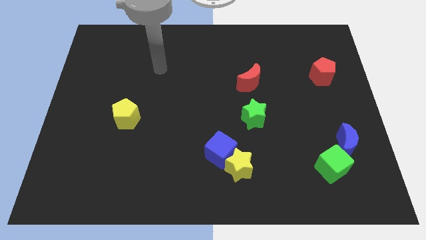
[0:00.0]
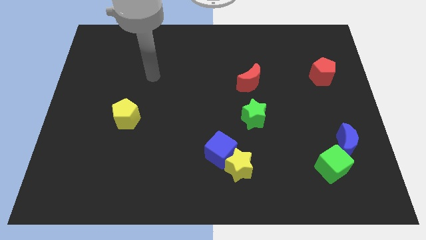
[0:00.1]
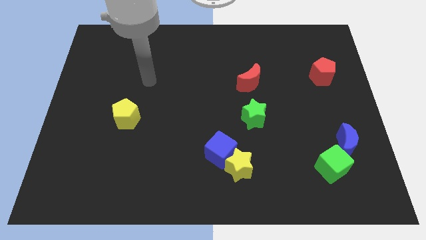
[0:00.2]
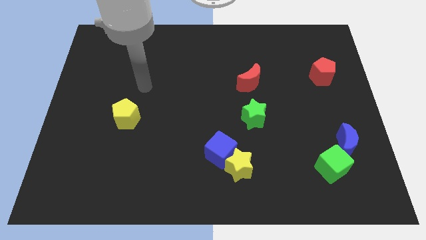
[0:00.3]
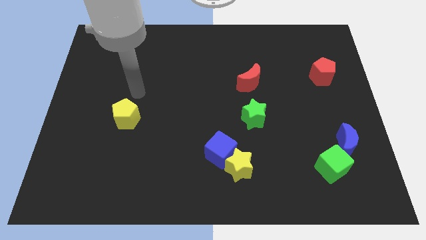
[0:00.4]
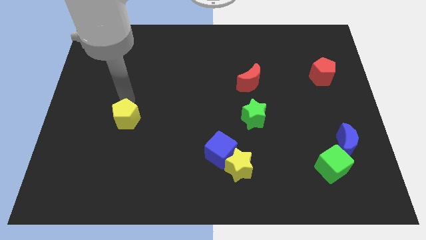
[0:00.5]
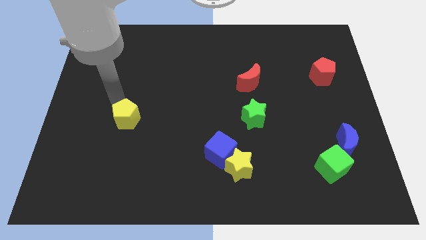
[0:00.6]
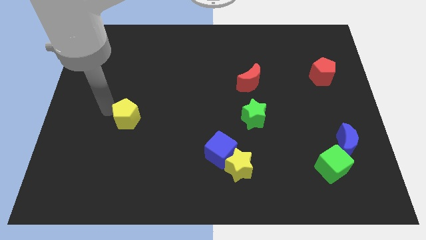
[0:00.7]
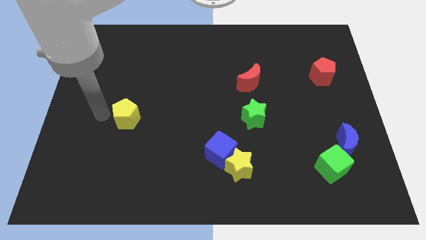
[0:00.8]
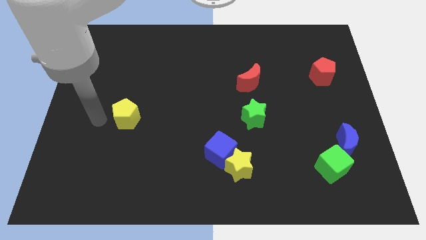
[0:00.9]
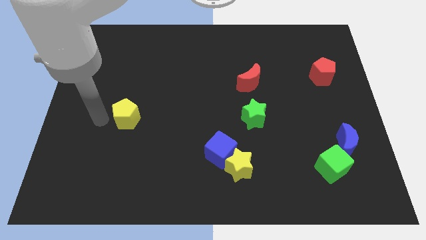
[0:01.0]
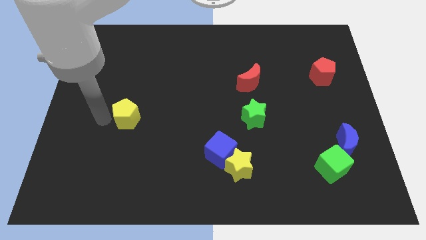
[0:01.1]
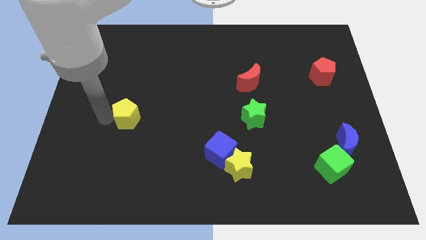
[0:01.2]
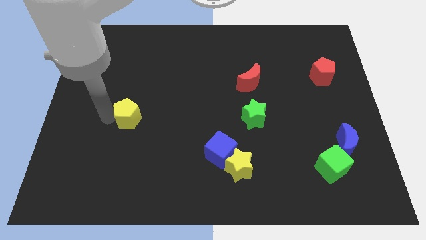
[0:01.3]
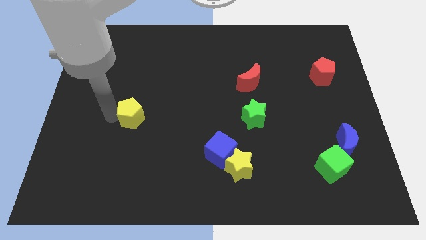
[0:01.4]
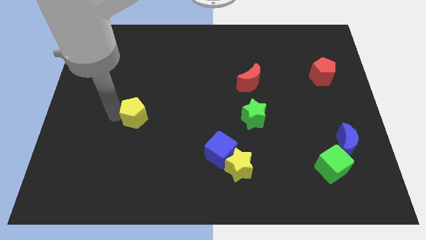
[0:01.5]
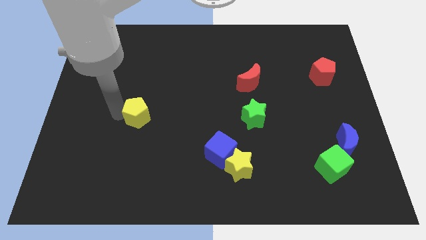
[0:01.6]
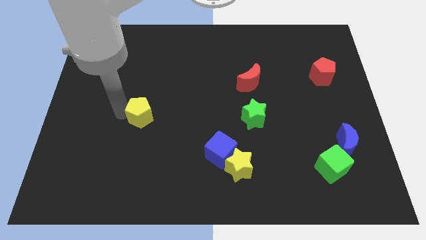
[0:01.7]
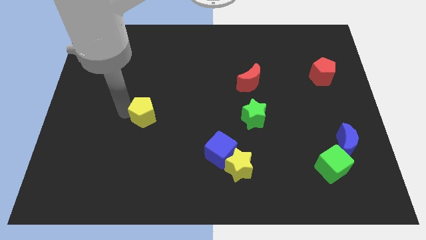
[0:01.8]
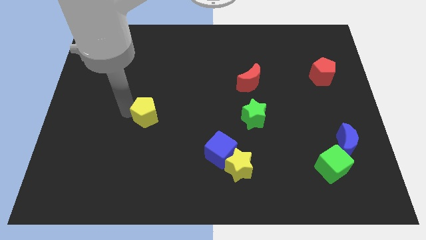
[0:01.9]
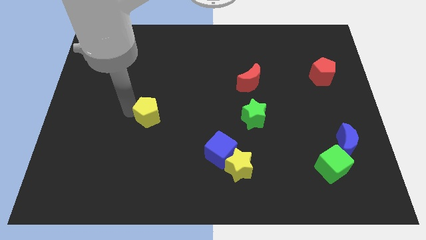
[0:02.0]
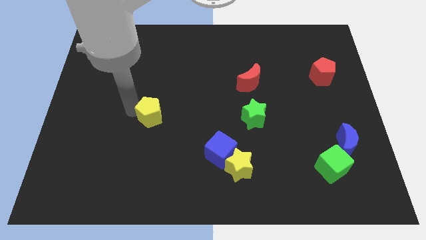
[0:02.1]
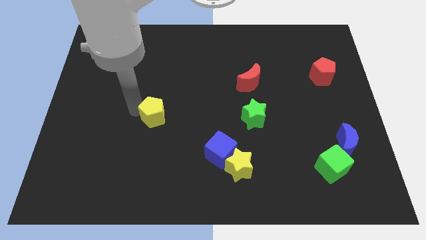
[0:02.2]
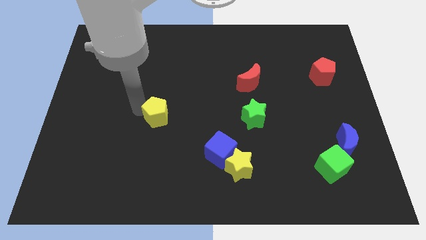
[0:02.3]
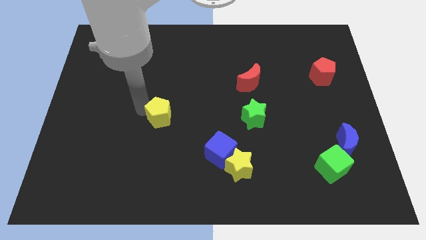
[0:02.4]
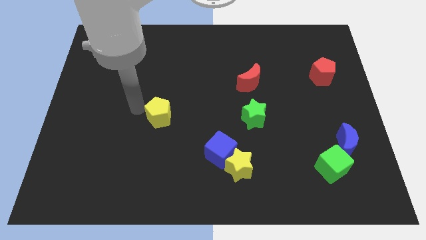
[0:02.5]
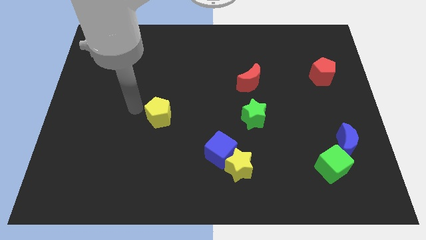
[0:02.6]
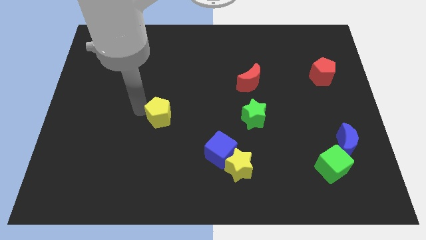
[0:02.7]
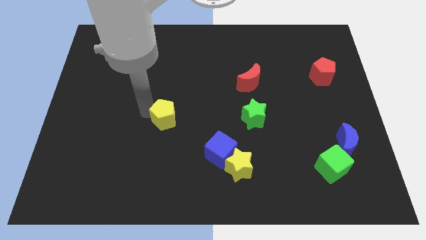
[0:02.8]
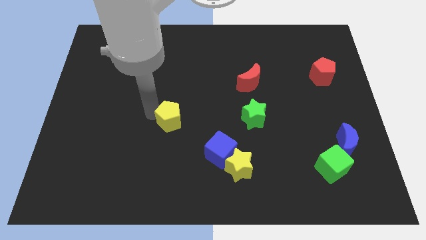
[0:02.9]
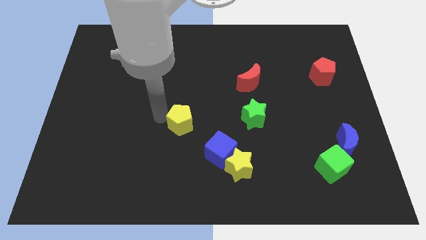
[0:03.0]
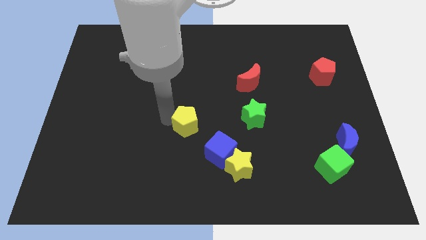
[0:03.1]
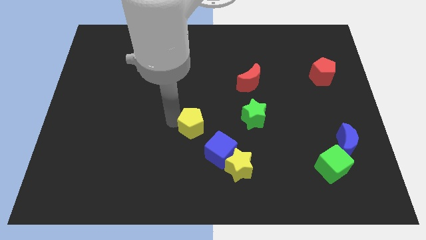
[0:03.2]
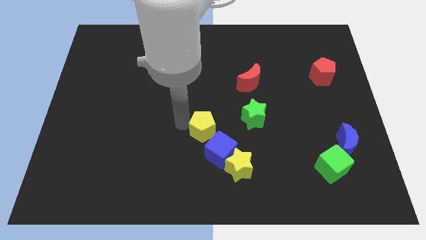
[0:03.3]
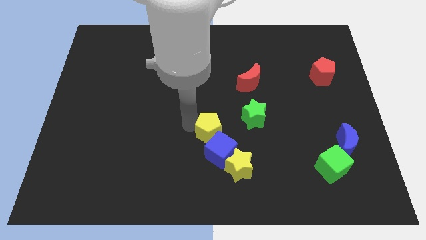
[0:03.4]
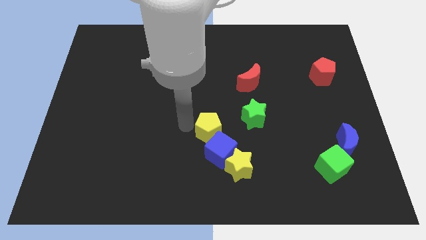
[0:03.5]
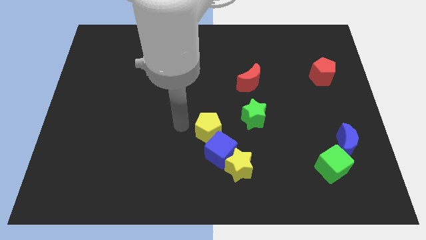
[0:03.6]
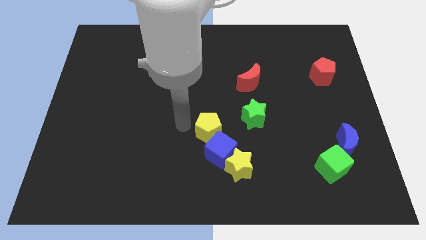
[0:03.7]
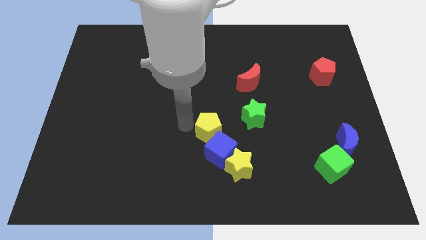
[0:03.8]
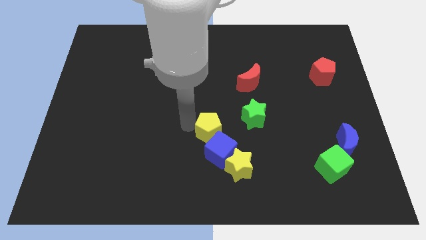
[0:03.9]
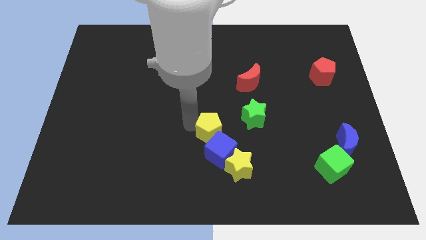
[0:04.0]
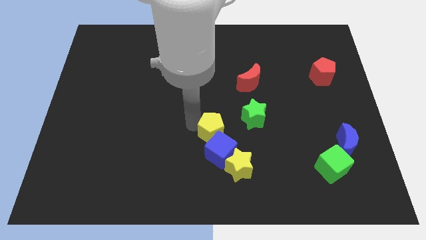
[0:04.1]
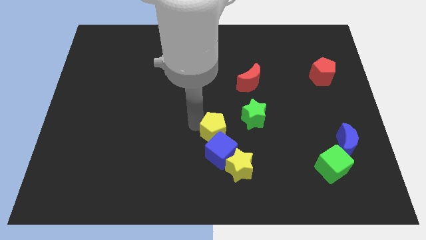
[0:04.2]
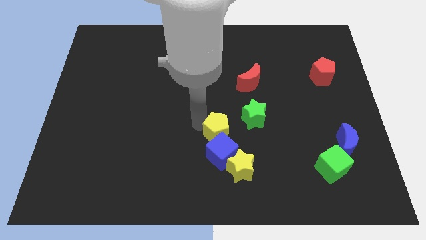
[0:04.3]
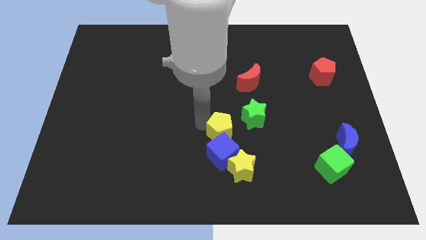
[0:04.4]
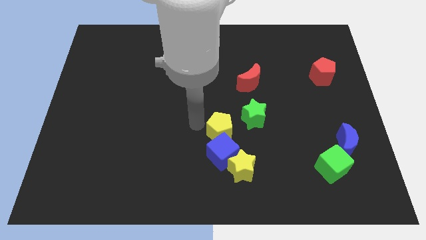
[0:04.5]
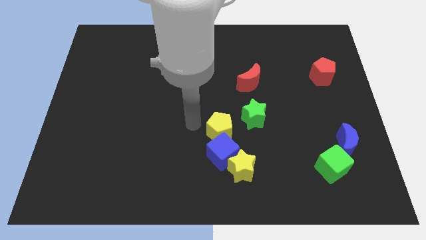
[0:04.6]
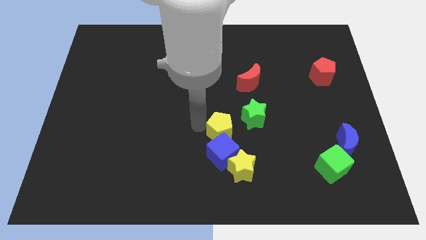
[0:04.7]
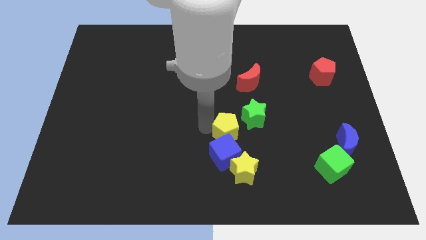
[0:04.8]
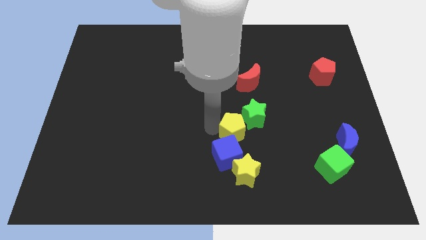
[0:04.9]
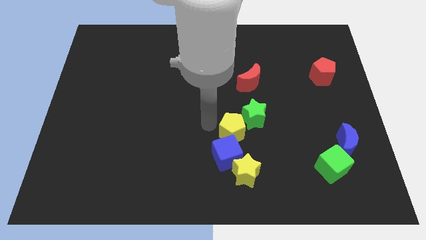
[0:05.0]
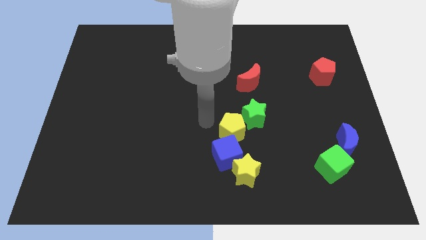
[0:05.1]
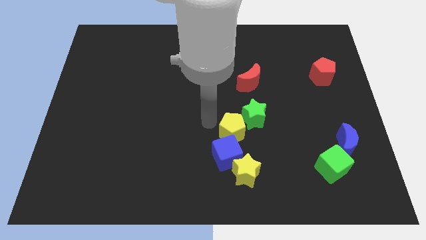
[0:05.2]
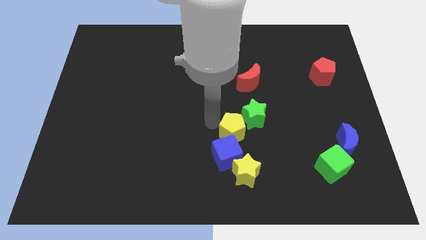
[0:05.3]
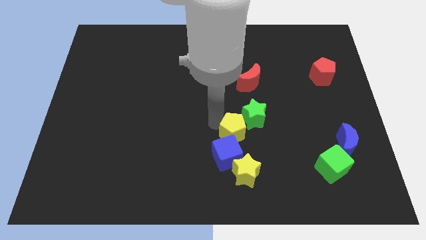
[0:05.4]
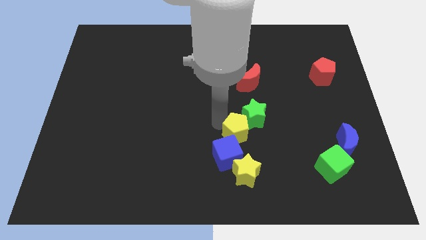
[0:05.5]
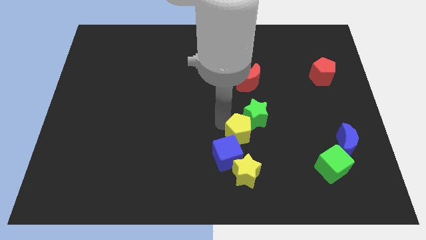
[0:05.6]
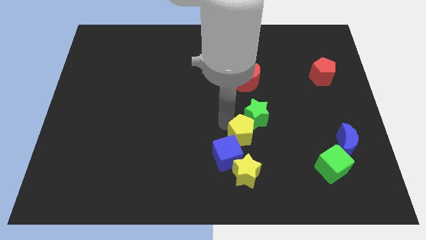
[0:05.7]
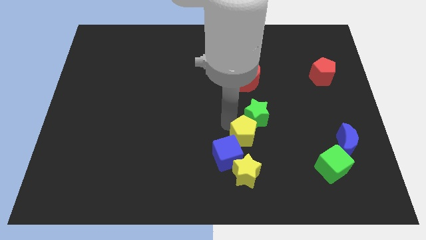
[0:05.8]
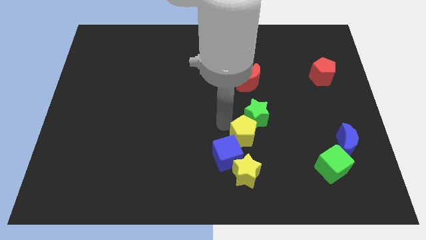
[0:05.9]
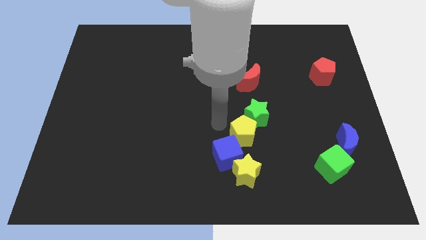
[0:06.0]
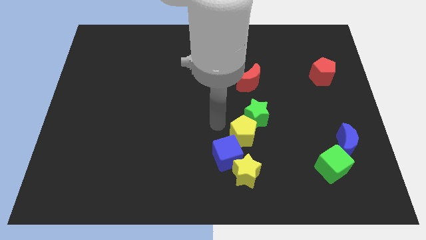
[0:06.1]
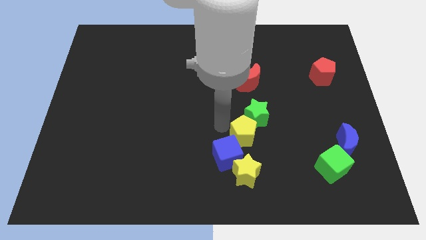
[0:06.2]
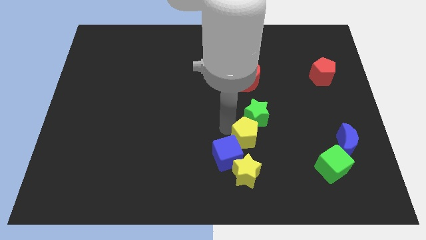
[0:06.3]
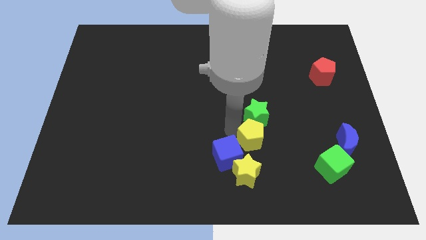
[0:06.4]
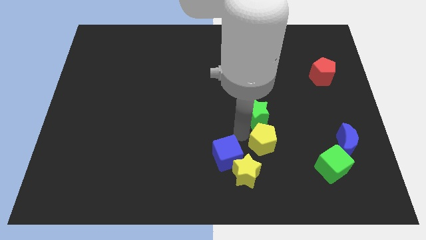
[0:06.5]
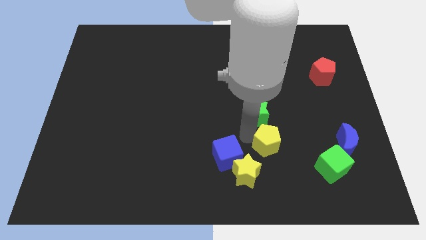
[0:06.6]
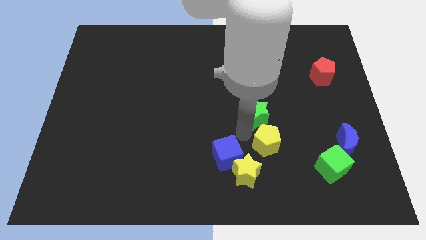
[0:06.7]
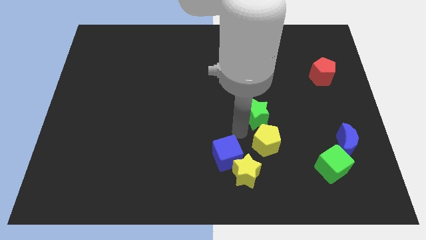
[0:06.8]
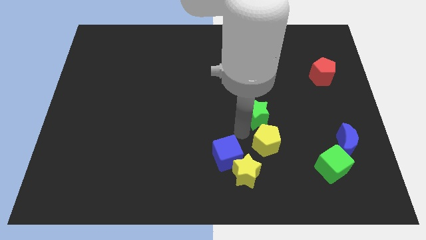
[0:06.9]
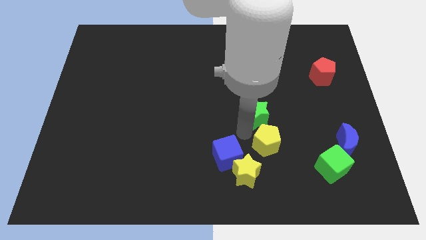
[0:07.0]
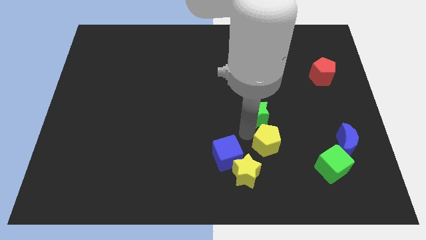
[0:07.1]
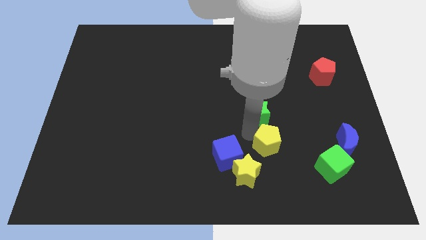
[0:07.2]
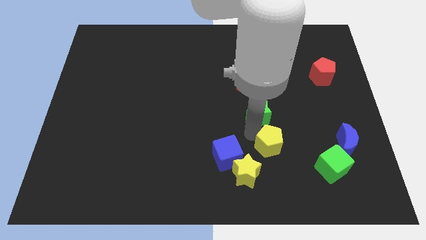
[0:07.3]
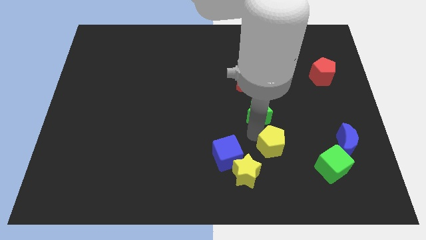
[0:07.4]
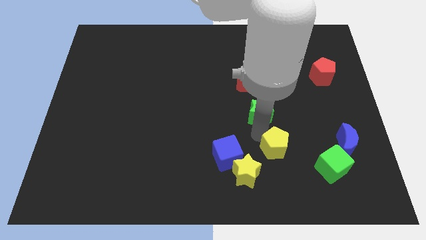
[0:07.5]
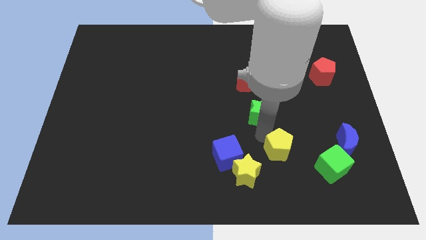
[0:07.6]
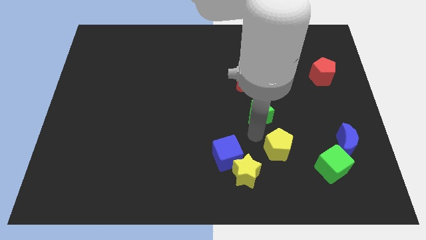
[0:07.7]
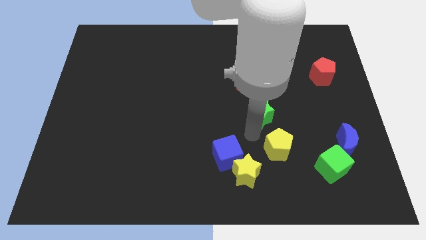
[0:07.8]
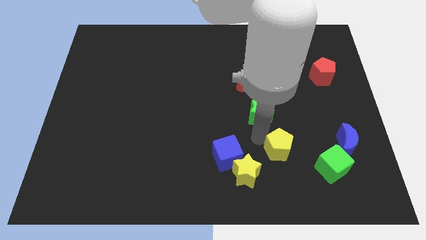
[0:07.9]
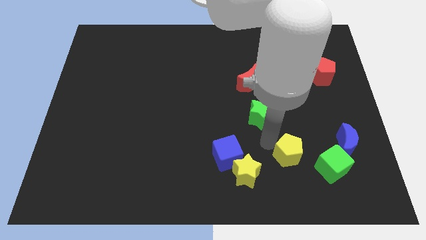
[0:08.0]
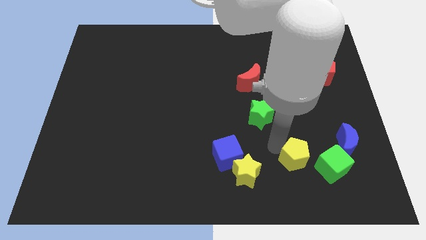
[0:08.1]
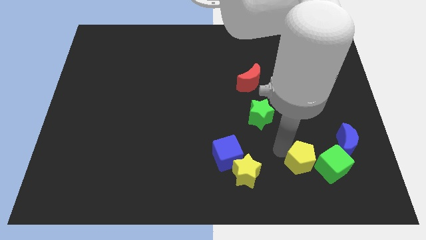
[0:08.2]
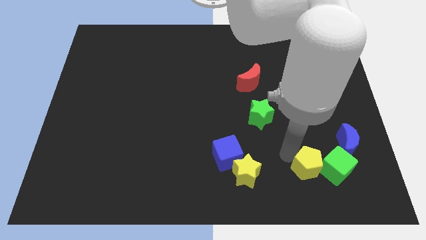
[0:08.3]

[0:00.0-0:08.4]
slide the yellow pentagon next to the green cube
